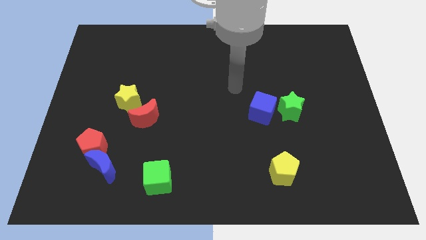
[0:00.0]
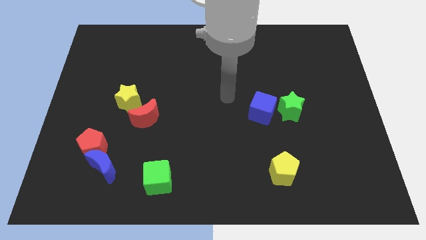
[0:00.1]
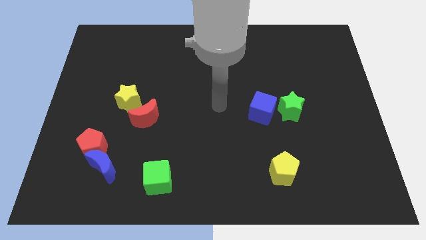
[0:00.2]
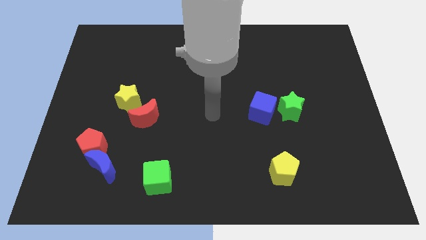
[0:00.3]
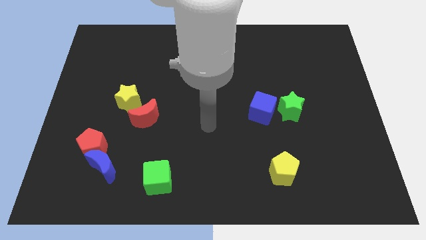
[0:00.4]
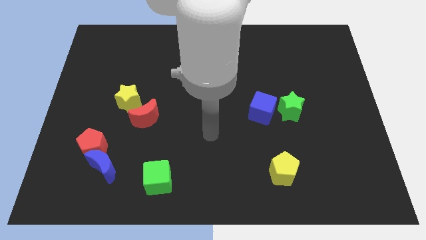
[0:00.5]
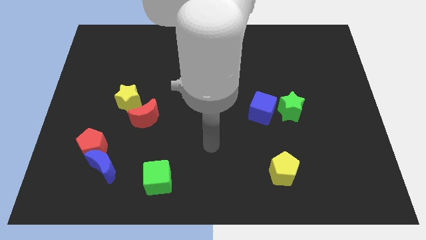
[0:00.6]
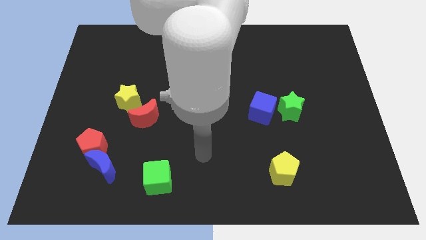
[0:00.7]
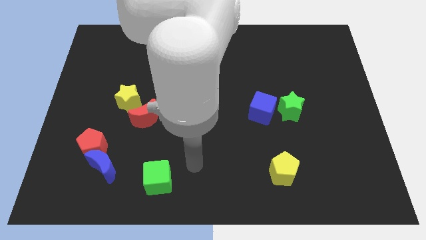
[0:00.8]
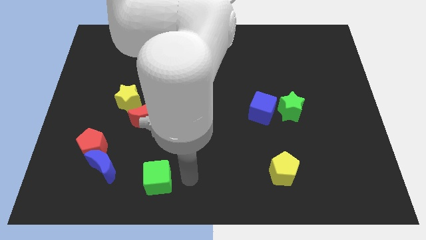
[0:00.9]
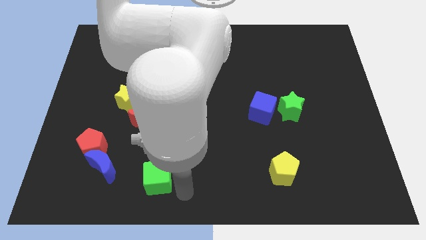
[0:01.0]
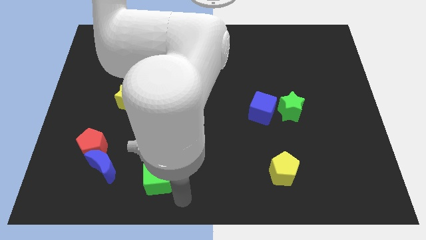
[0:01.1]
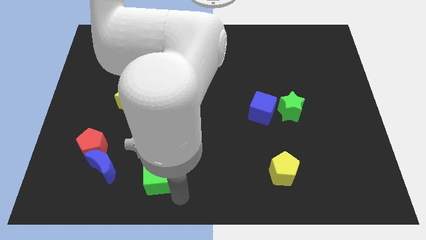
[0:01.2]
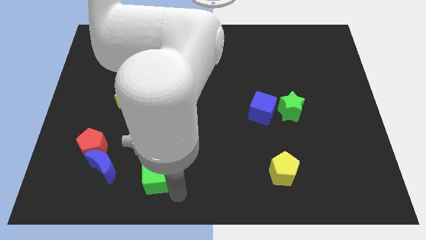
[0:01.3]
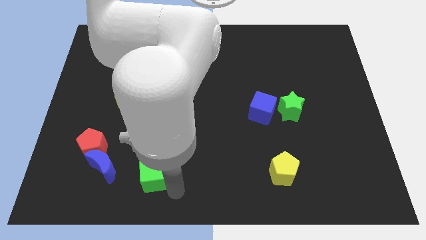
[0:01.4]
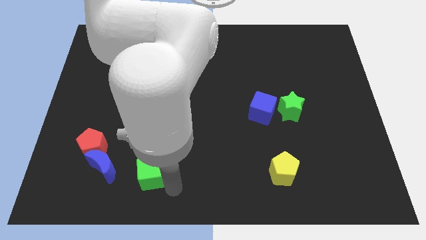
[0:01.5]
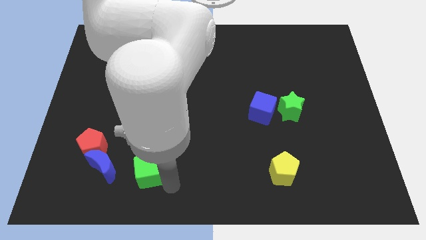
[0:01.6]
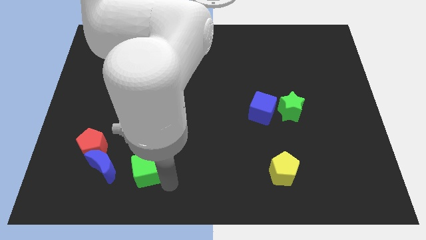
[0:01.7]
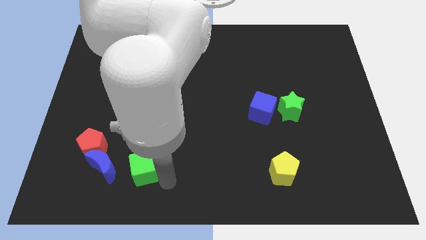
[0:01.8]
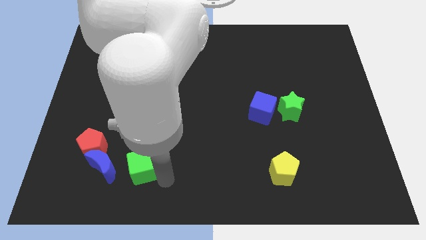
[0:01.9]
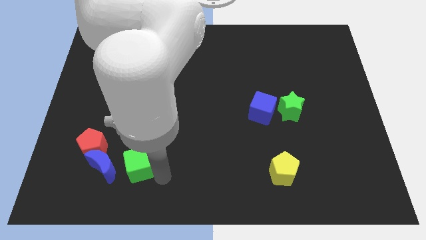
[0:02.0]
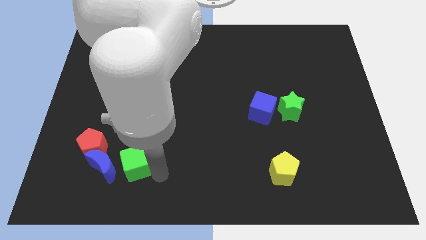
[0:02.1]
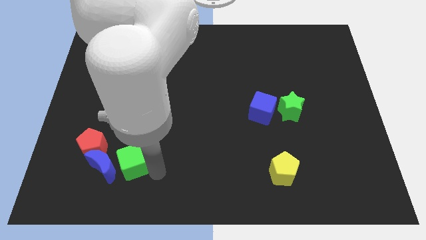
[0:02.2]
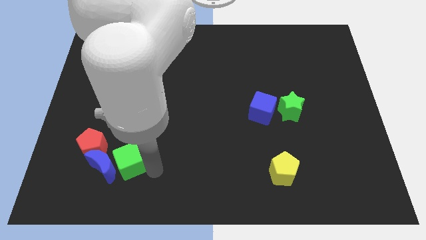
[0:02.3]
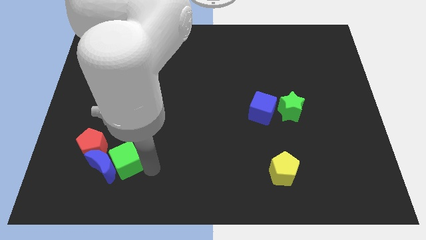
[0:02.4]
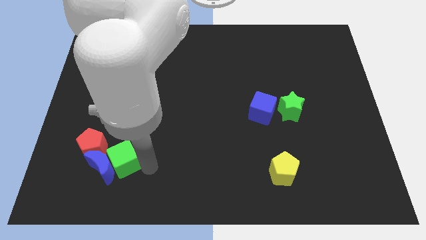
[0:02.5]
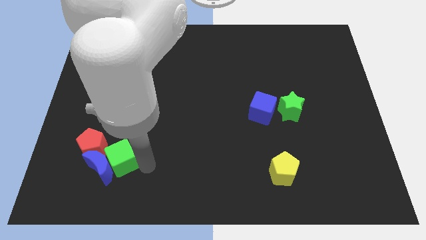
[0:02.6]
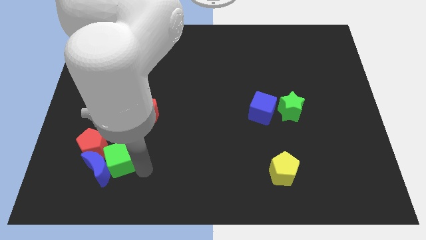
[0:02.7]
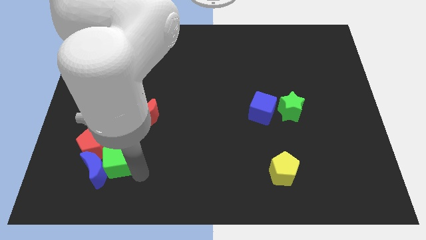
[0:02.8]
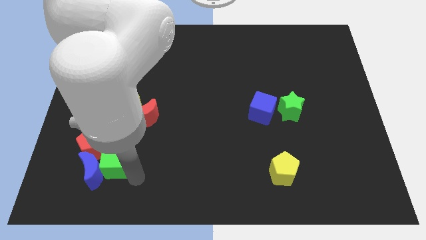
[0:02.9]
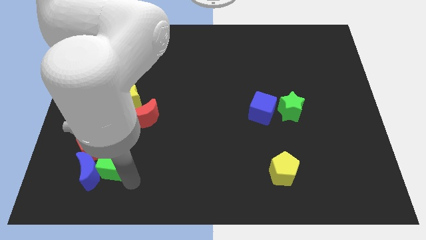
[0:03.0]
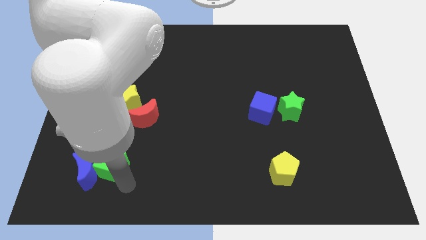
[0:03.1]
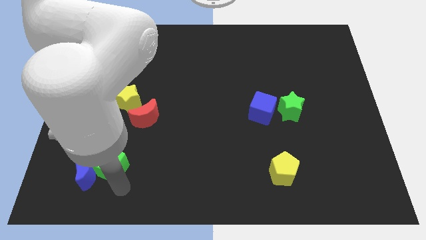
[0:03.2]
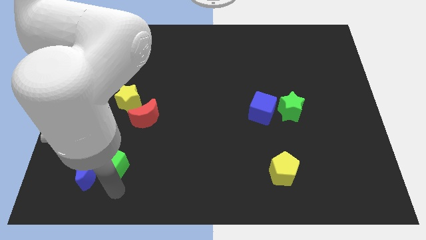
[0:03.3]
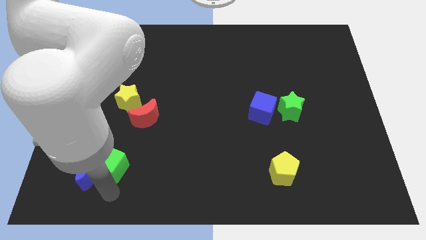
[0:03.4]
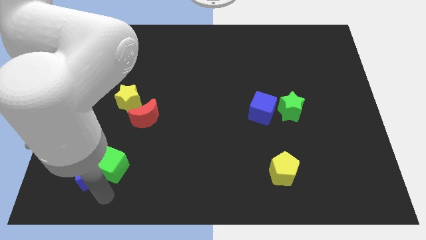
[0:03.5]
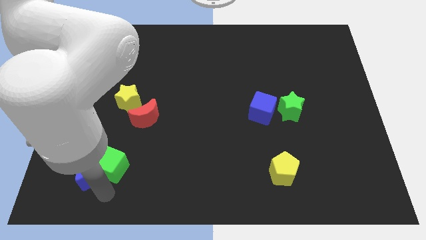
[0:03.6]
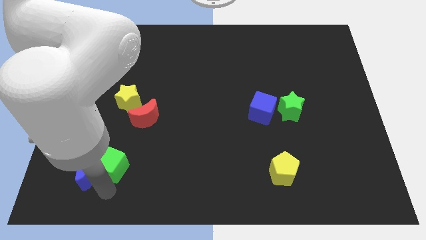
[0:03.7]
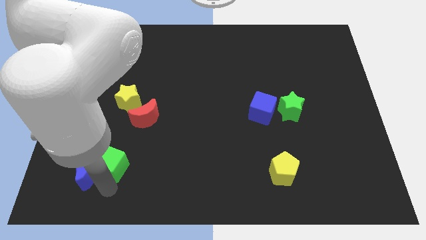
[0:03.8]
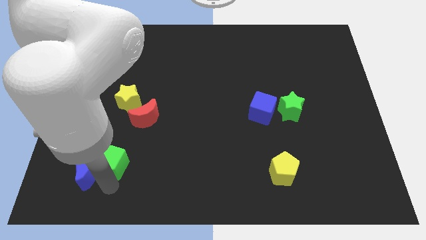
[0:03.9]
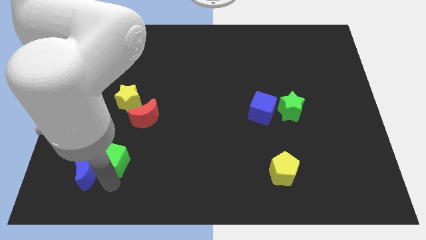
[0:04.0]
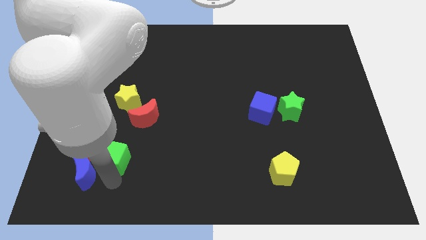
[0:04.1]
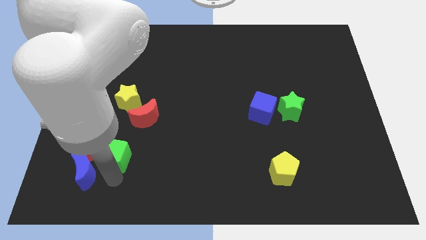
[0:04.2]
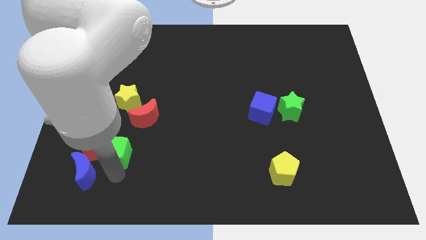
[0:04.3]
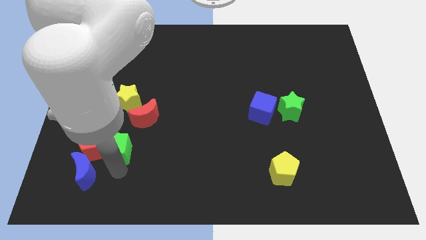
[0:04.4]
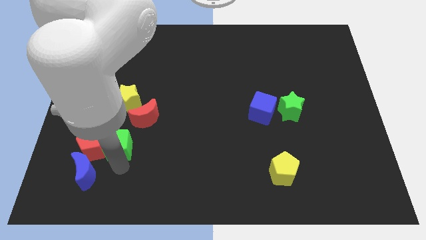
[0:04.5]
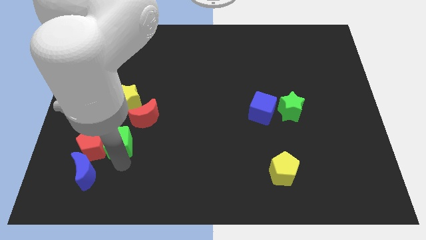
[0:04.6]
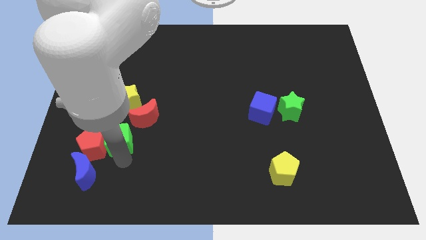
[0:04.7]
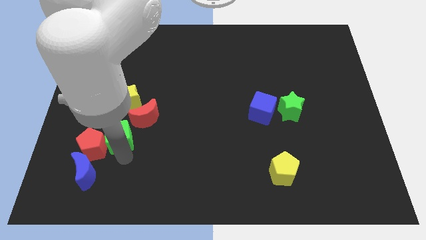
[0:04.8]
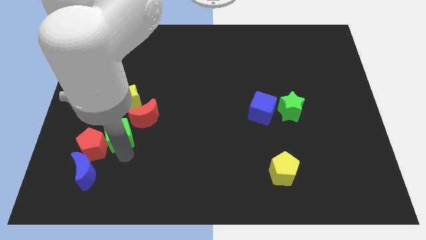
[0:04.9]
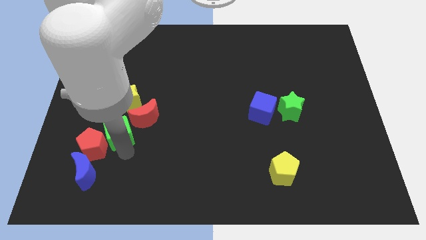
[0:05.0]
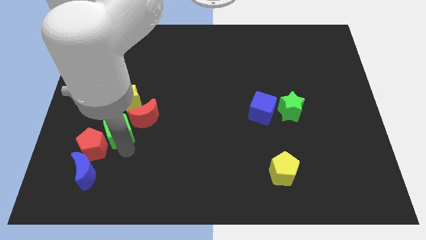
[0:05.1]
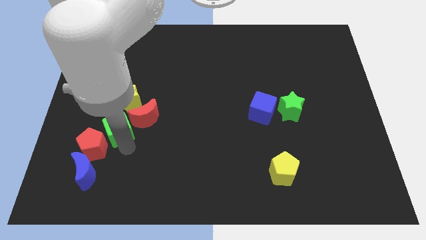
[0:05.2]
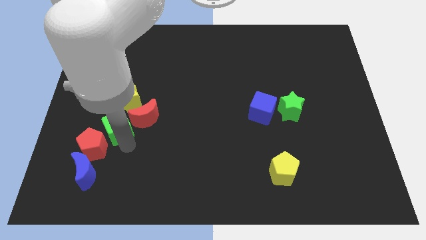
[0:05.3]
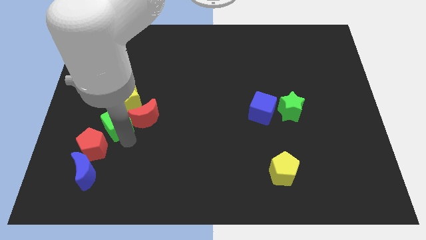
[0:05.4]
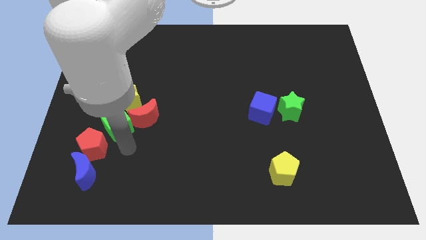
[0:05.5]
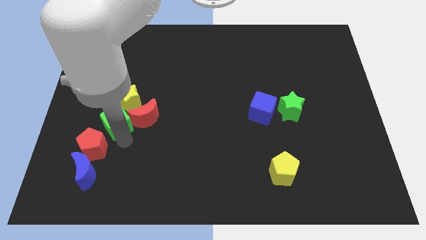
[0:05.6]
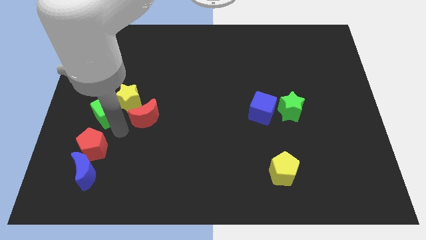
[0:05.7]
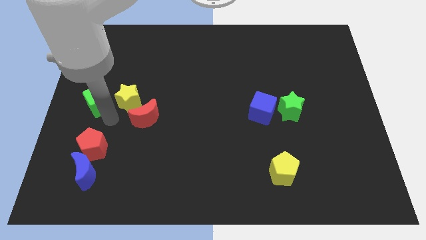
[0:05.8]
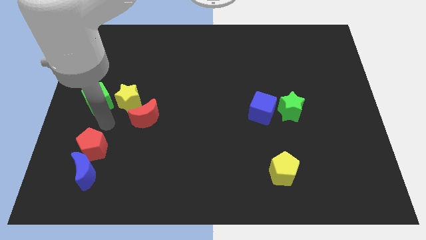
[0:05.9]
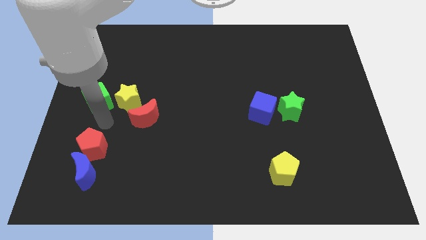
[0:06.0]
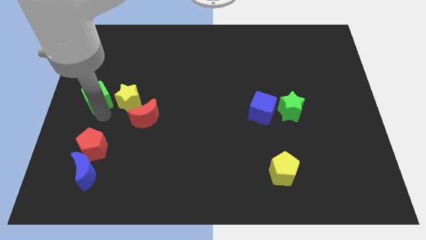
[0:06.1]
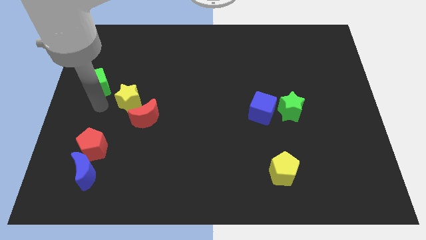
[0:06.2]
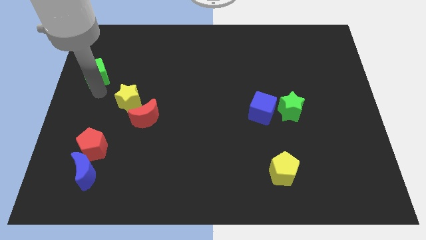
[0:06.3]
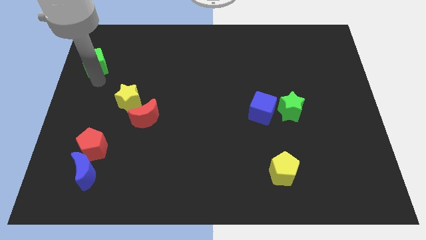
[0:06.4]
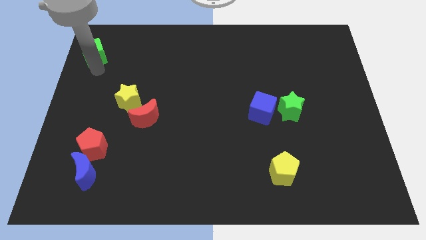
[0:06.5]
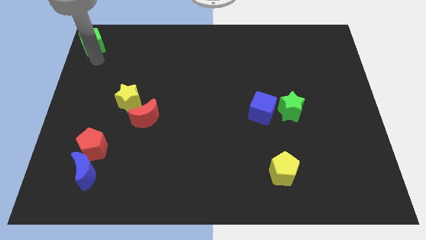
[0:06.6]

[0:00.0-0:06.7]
slide the green cube to the upper left corner
